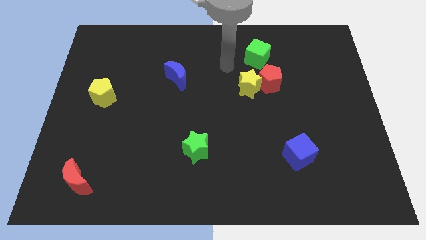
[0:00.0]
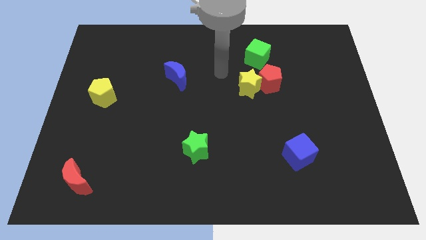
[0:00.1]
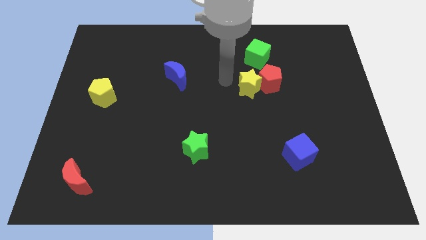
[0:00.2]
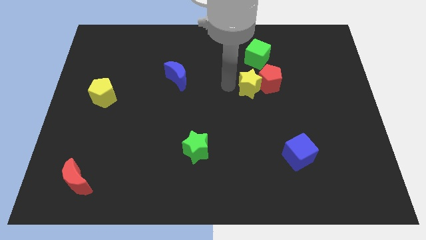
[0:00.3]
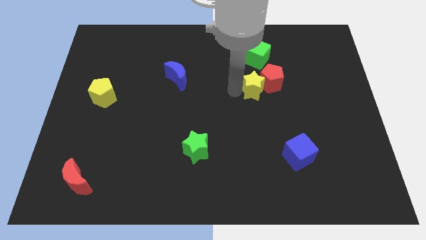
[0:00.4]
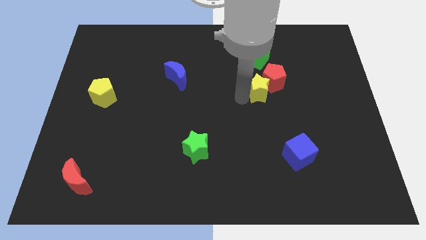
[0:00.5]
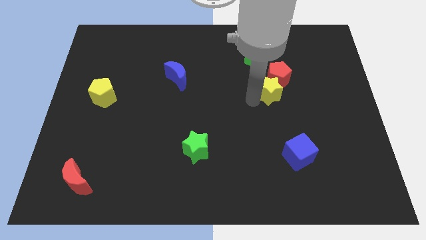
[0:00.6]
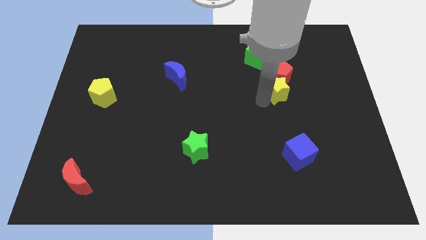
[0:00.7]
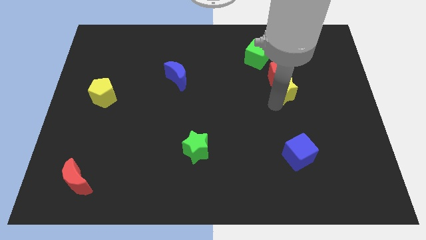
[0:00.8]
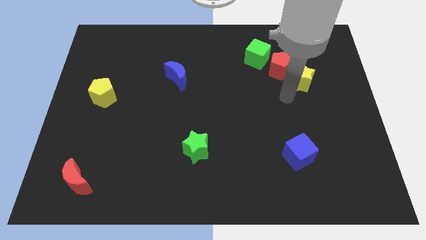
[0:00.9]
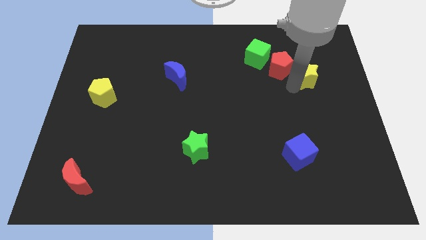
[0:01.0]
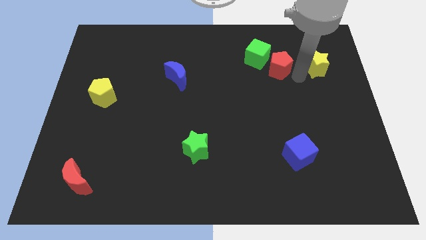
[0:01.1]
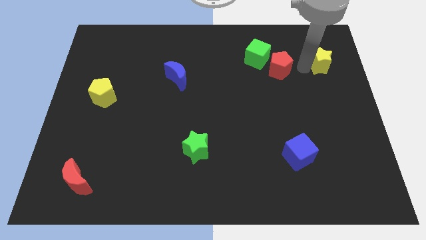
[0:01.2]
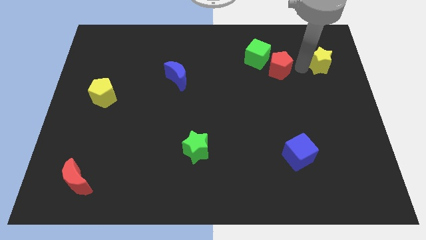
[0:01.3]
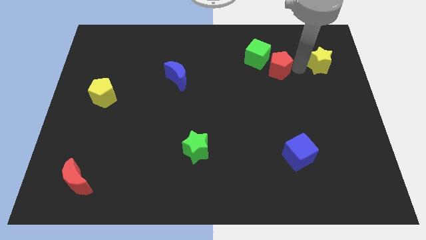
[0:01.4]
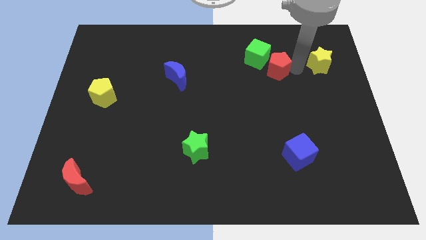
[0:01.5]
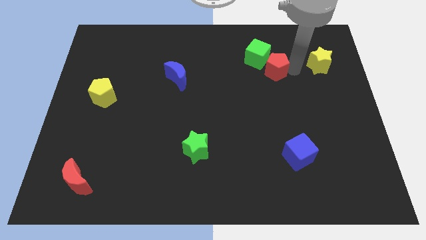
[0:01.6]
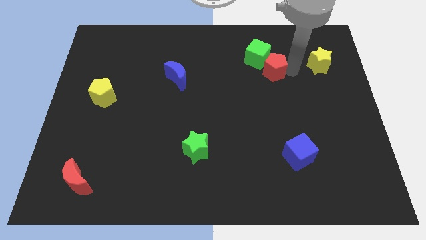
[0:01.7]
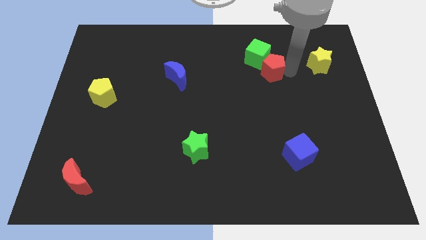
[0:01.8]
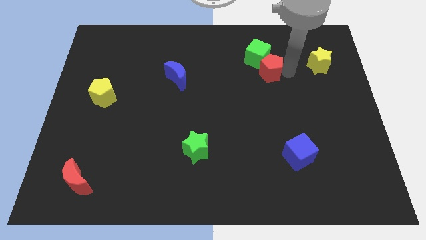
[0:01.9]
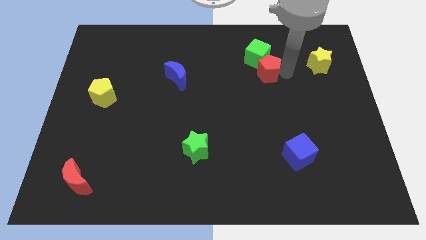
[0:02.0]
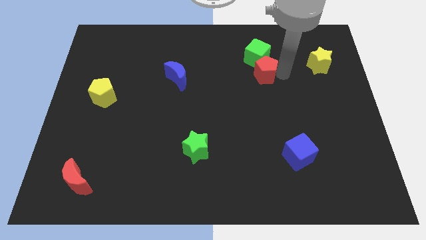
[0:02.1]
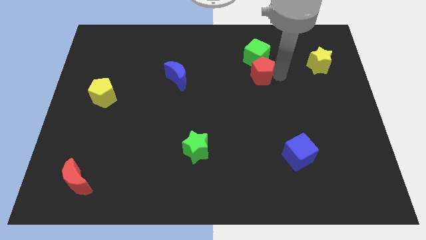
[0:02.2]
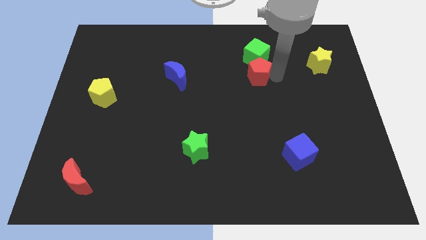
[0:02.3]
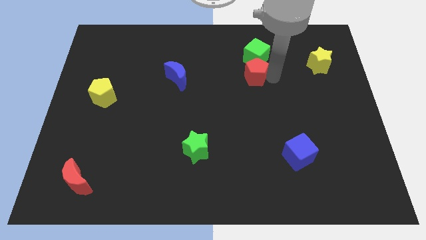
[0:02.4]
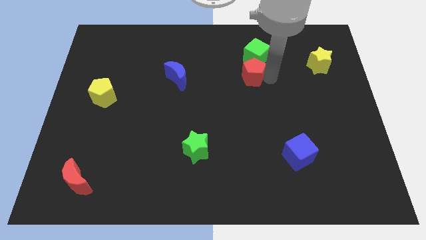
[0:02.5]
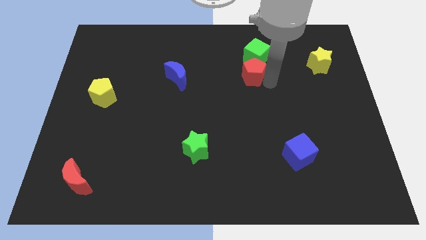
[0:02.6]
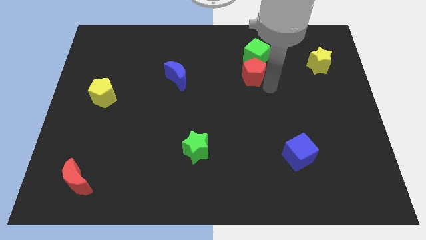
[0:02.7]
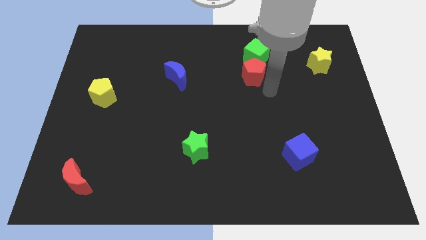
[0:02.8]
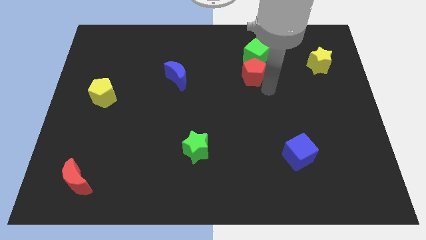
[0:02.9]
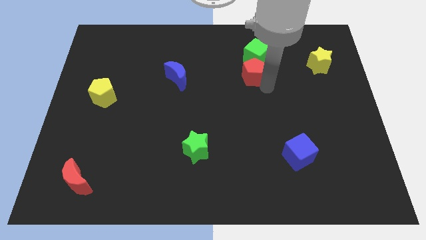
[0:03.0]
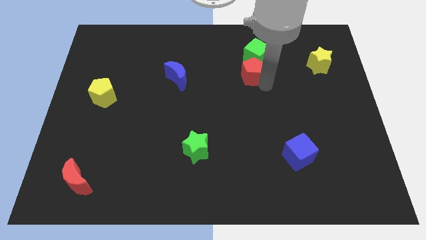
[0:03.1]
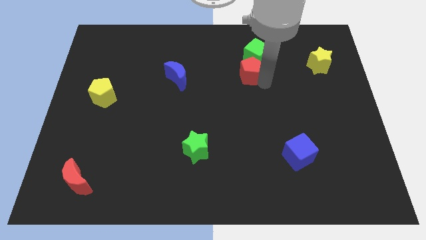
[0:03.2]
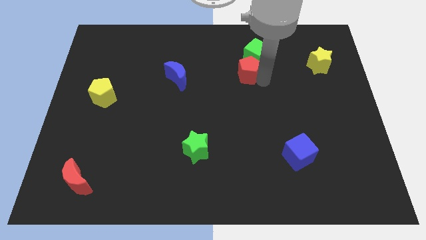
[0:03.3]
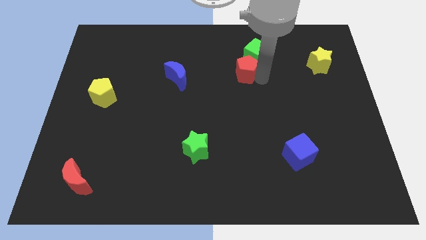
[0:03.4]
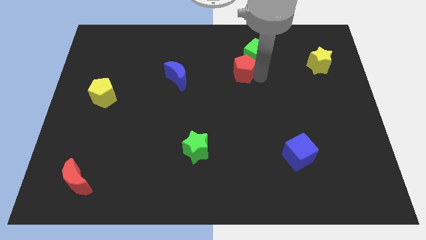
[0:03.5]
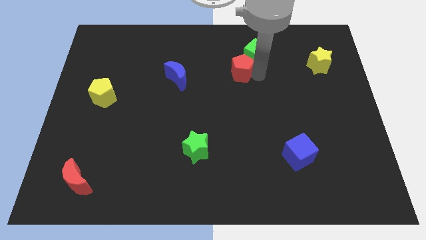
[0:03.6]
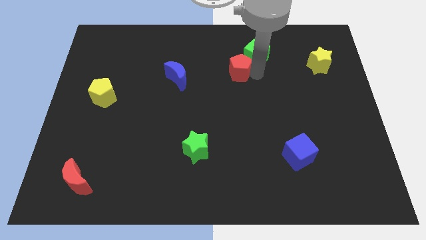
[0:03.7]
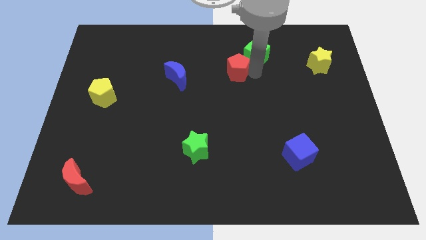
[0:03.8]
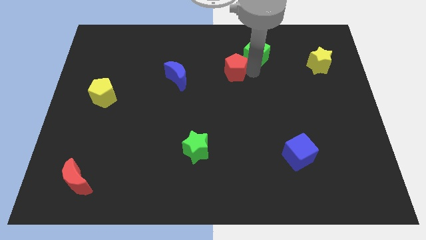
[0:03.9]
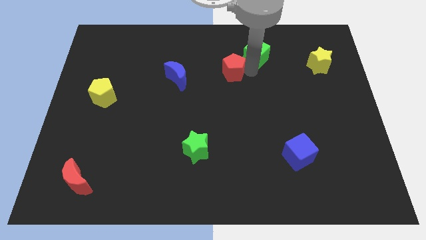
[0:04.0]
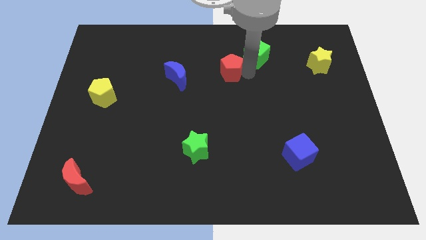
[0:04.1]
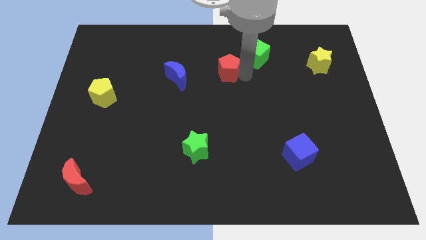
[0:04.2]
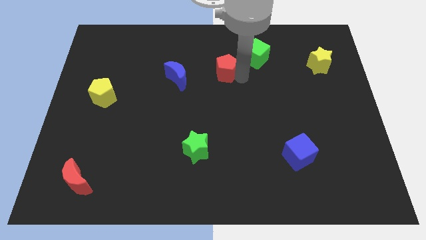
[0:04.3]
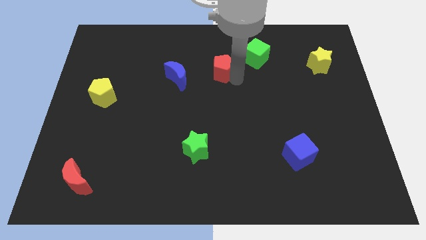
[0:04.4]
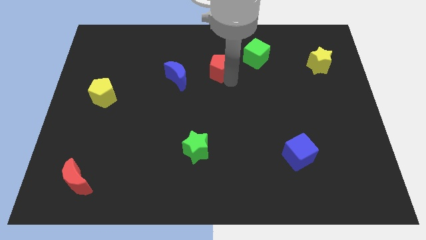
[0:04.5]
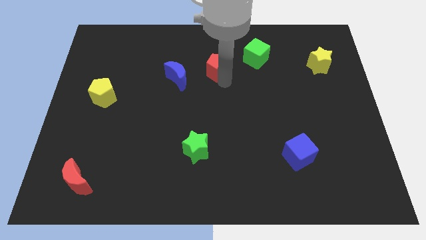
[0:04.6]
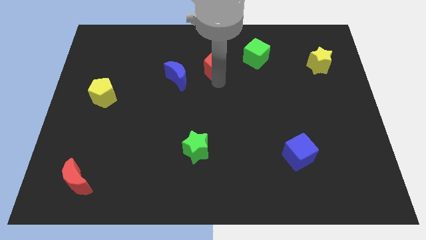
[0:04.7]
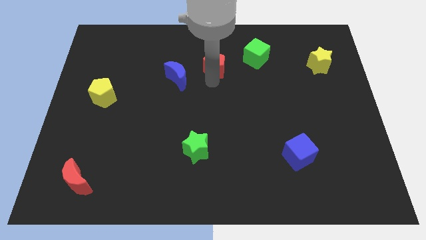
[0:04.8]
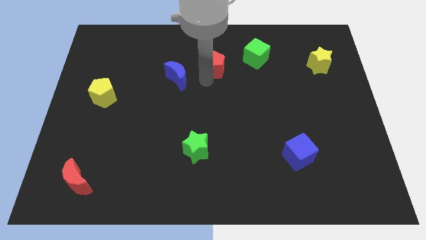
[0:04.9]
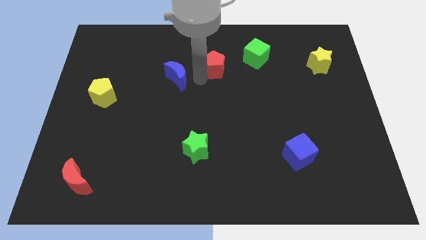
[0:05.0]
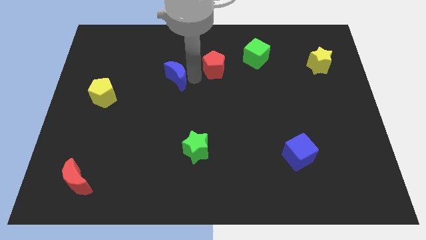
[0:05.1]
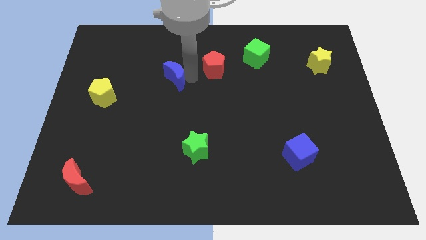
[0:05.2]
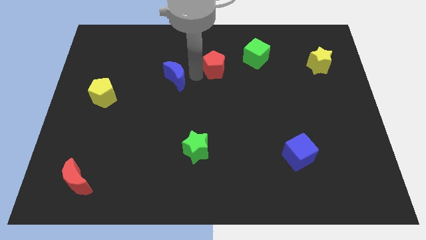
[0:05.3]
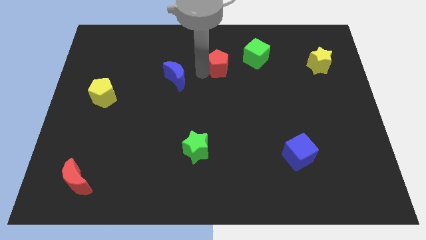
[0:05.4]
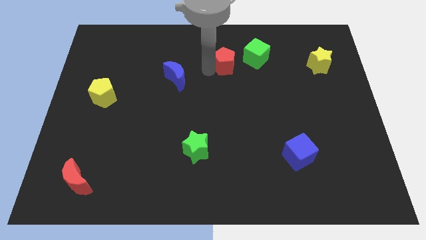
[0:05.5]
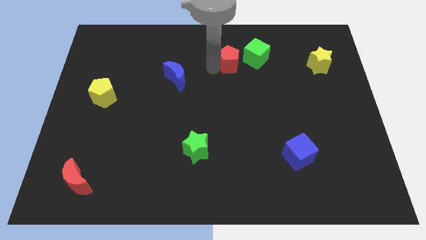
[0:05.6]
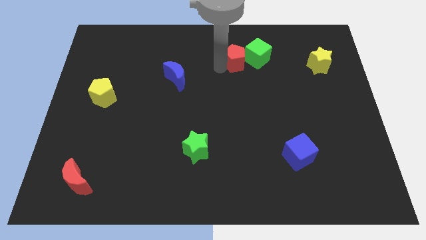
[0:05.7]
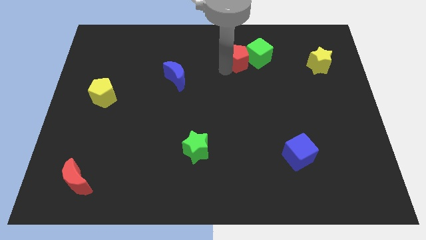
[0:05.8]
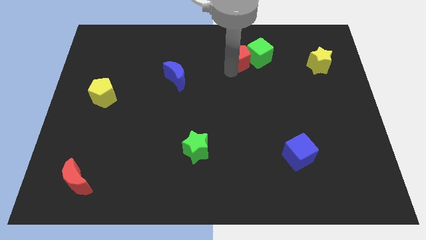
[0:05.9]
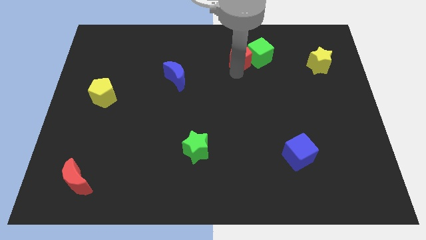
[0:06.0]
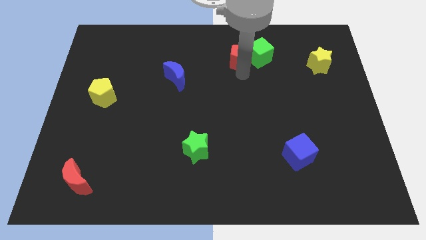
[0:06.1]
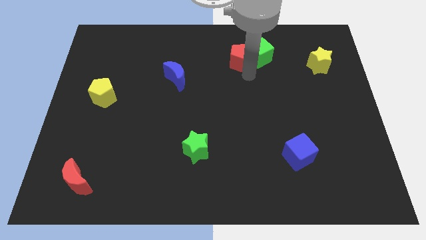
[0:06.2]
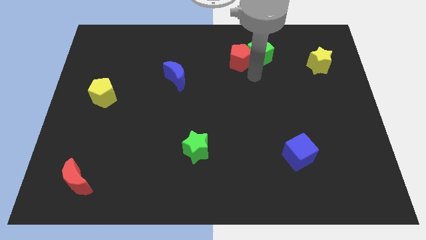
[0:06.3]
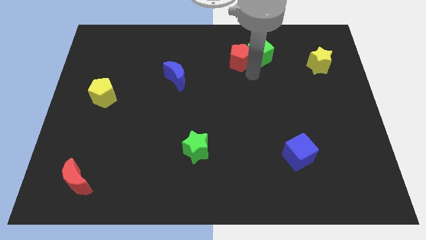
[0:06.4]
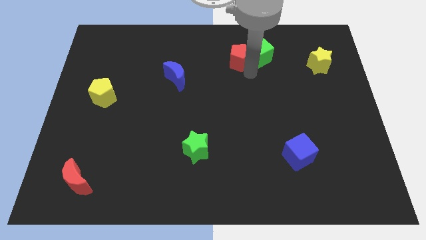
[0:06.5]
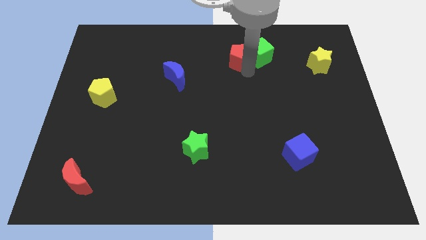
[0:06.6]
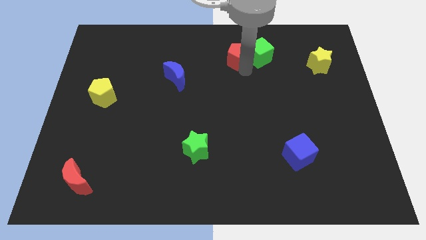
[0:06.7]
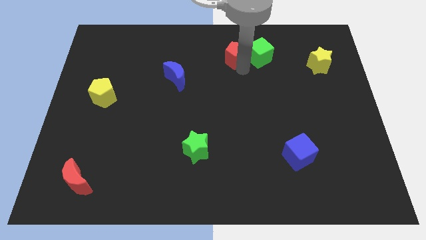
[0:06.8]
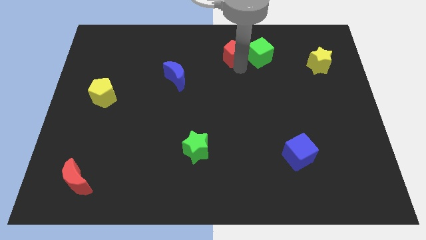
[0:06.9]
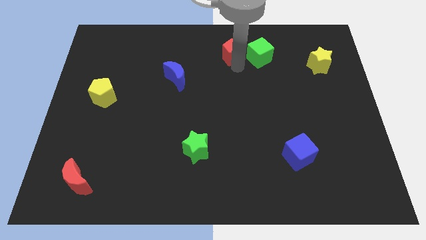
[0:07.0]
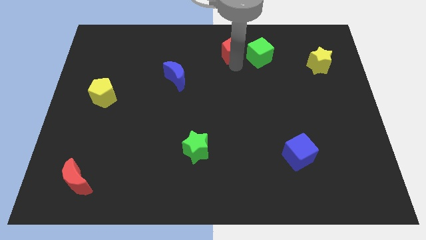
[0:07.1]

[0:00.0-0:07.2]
move the red pentagon to the towards your base
